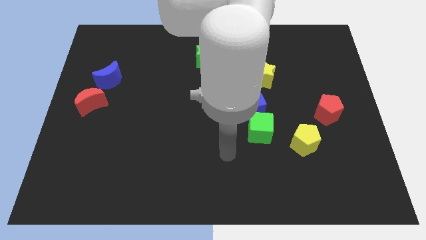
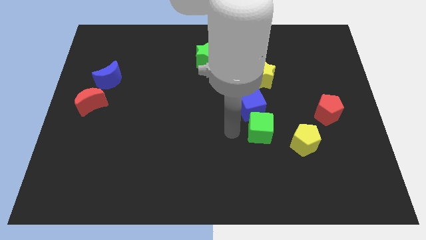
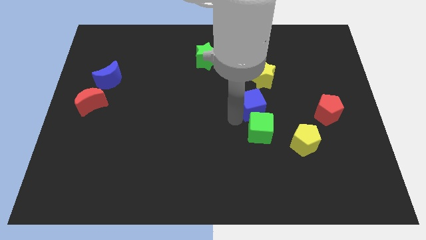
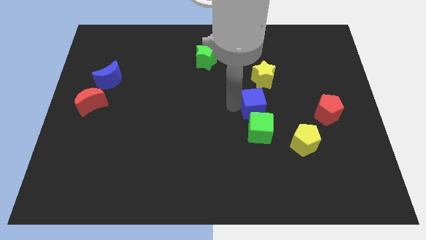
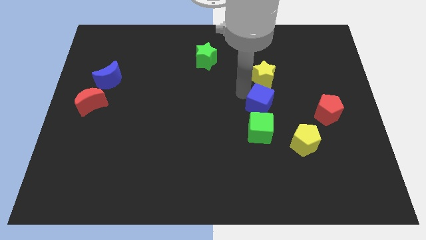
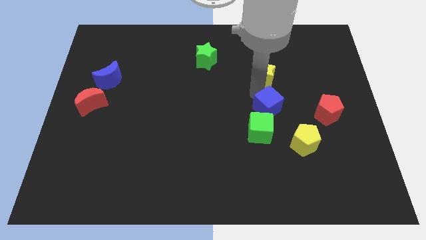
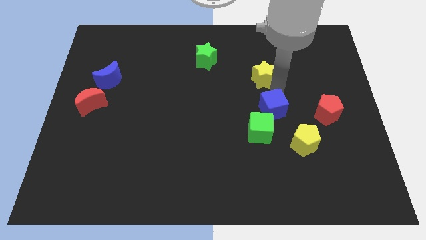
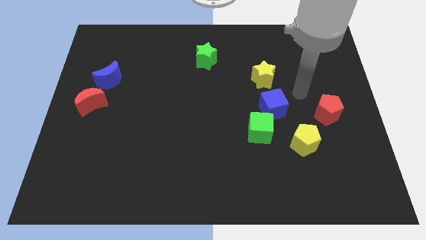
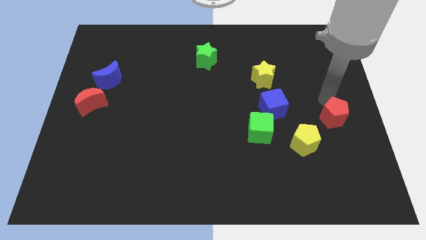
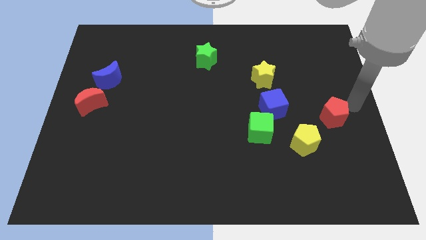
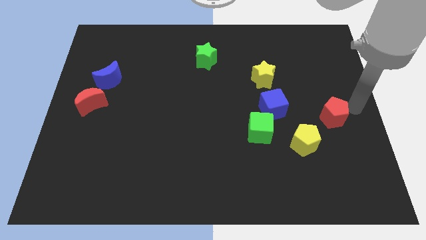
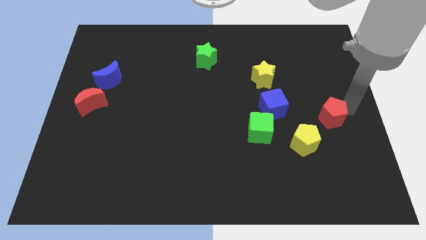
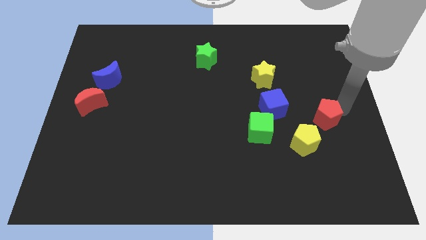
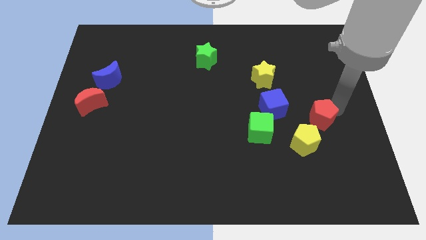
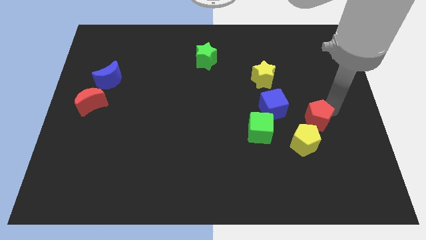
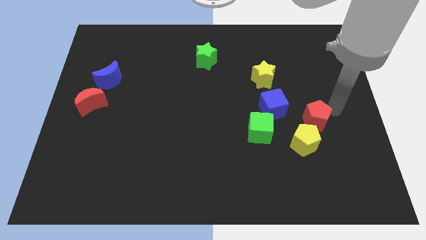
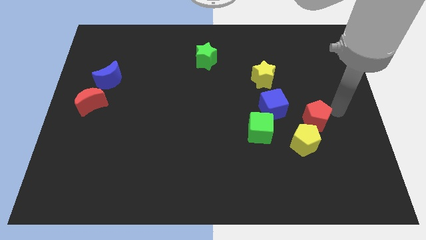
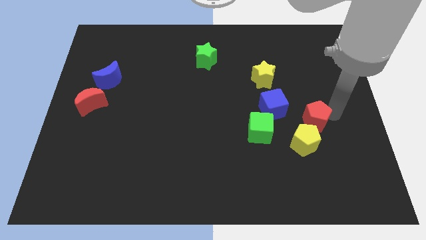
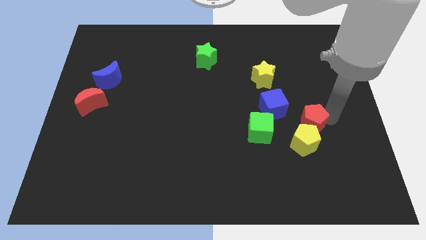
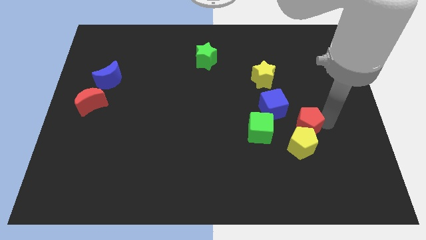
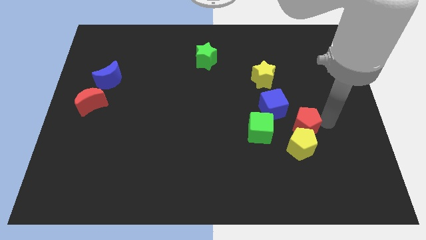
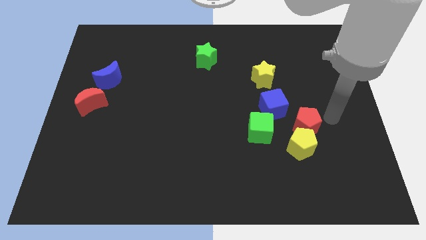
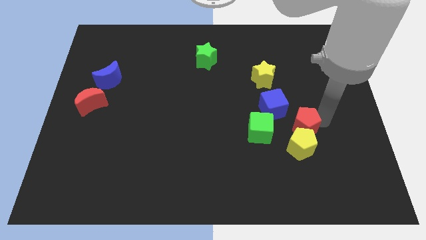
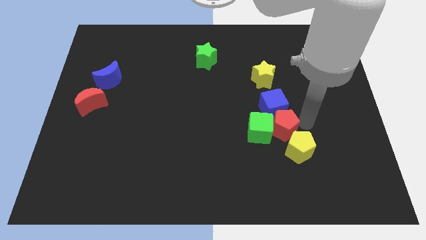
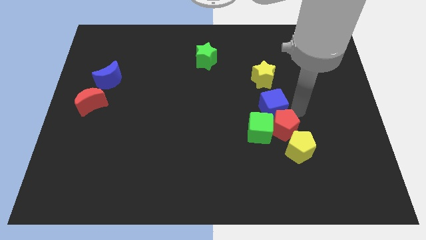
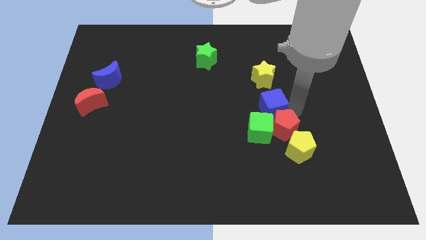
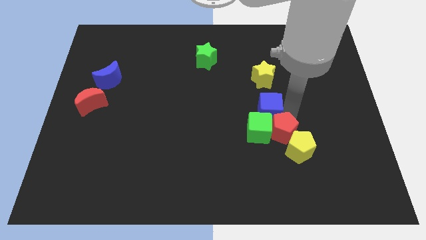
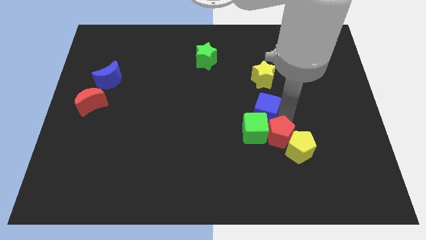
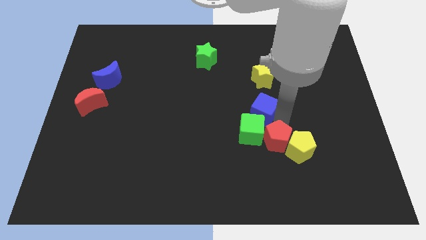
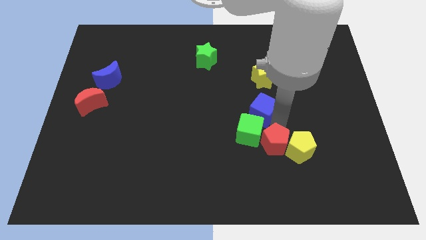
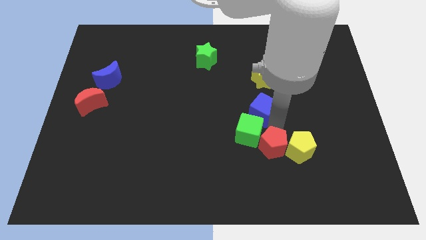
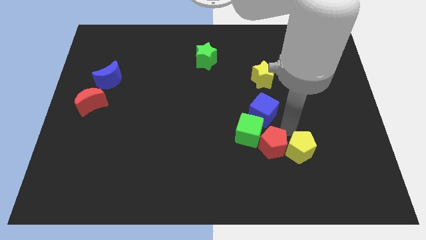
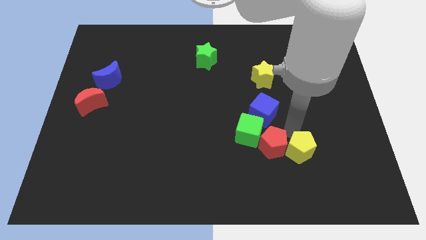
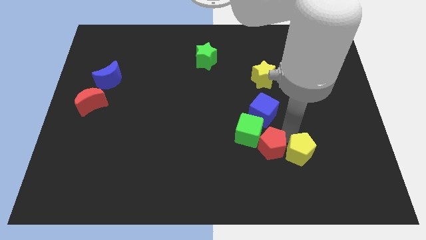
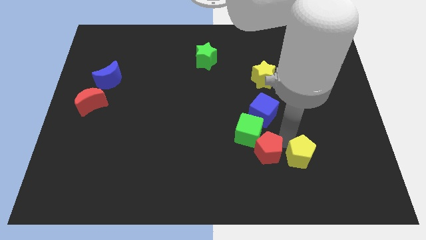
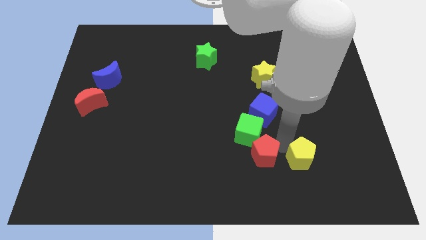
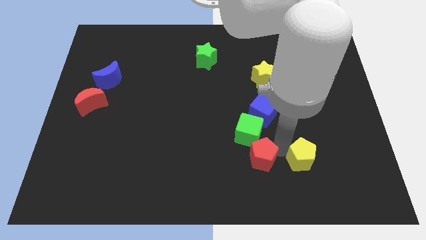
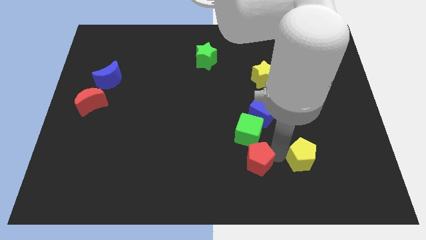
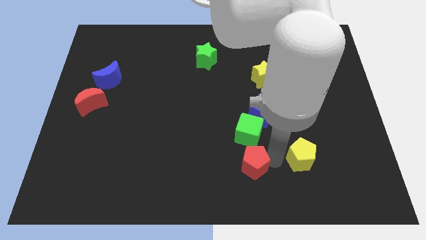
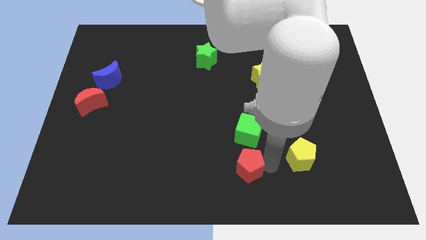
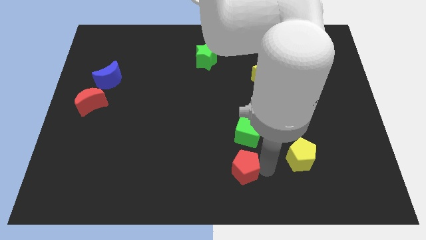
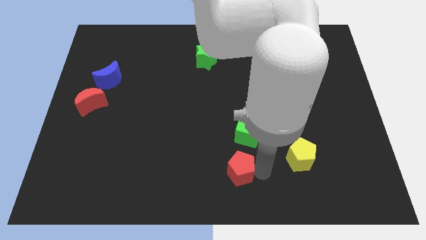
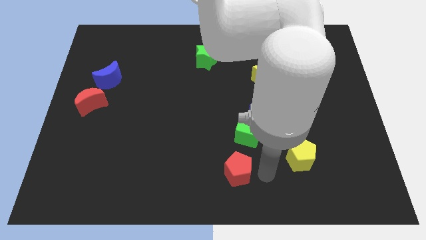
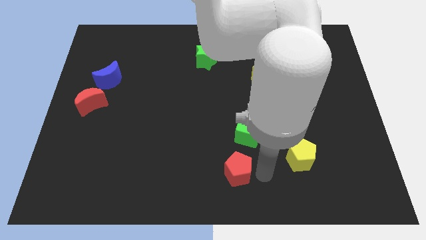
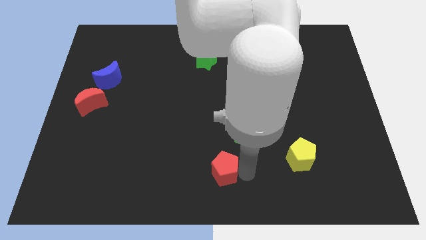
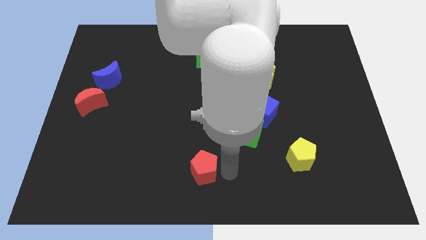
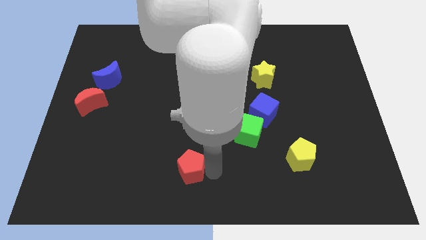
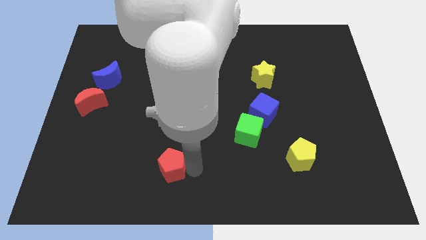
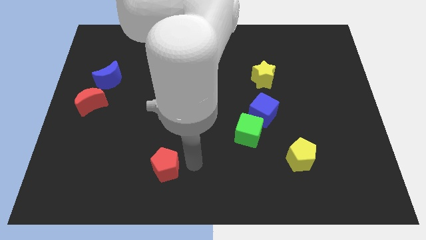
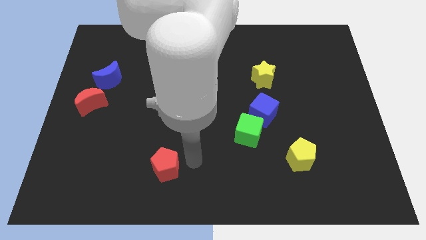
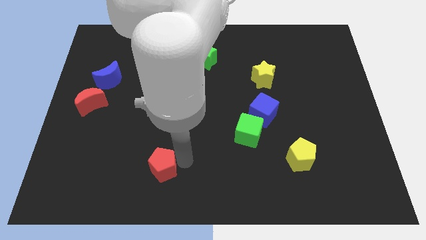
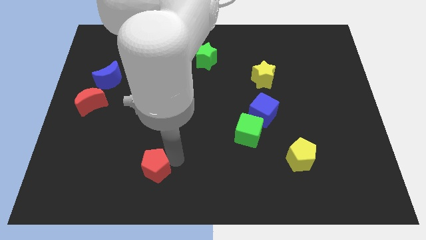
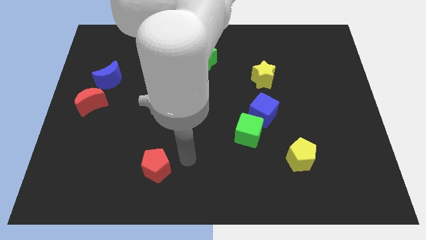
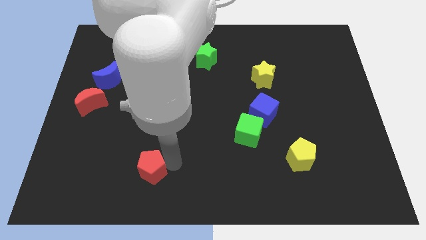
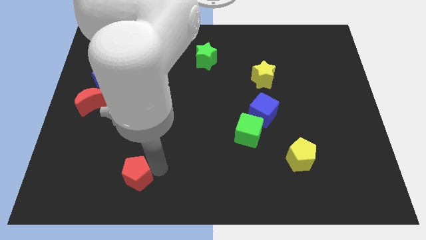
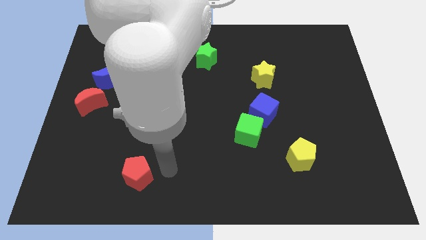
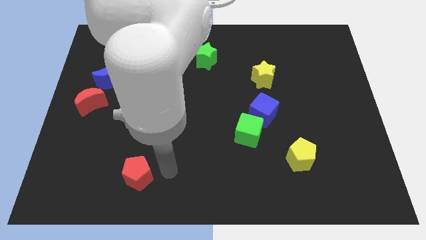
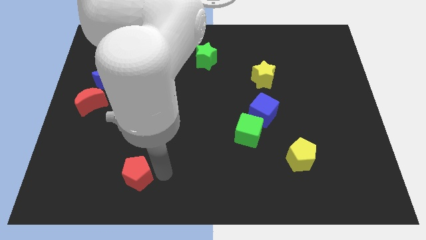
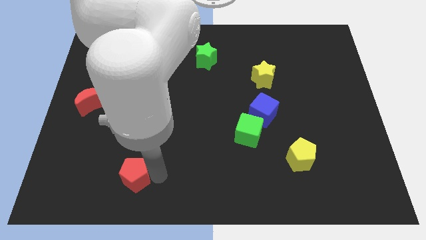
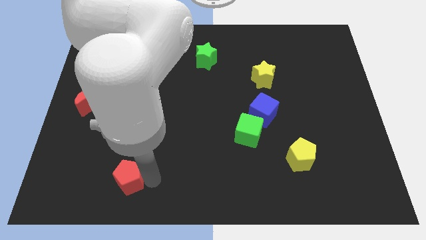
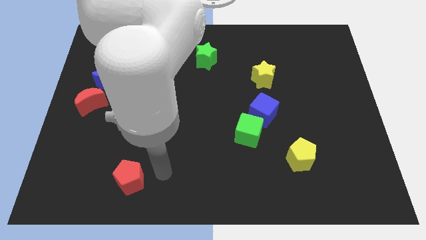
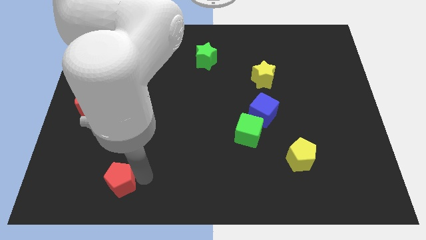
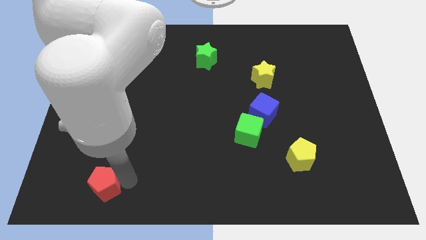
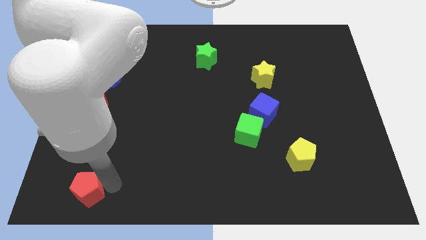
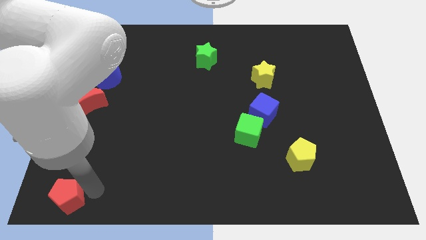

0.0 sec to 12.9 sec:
put the red pentagon to the bottom left
